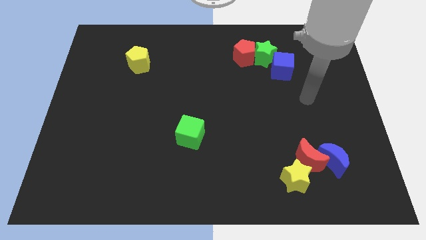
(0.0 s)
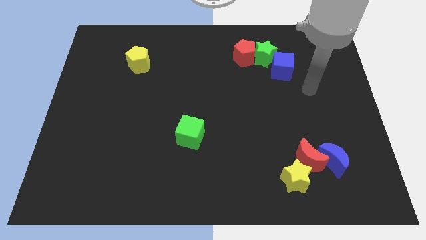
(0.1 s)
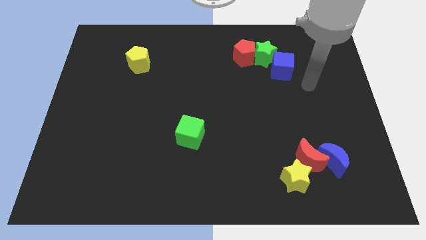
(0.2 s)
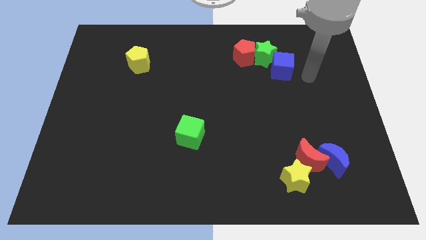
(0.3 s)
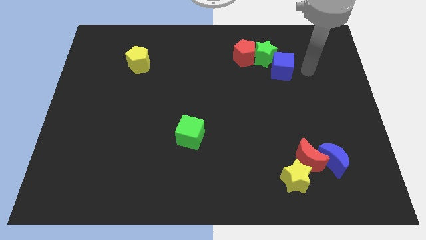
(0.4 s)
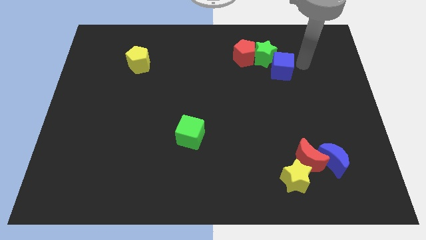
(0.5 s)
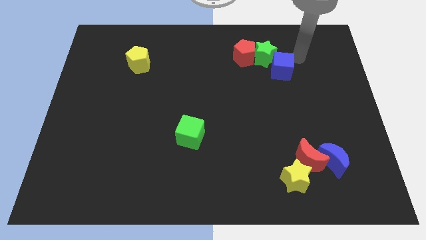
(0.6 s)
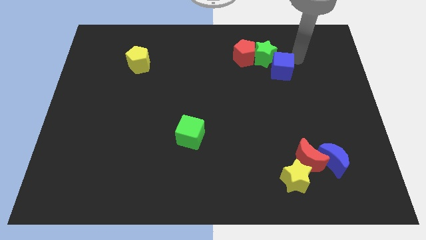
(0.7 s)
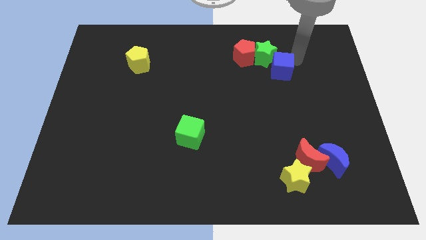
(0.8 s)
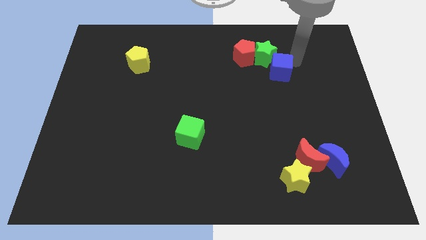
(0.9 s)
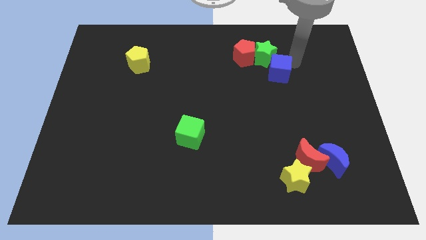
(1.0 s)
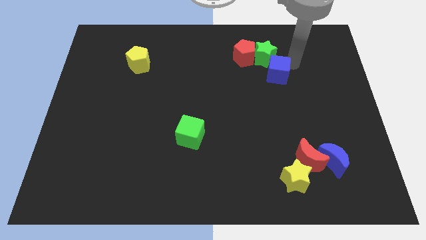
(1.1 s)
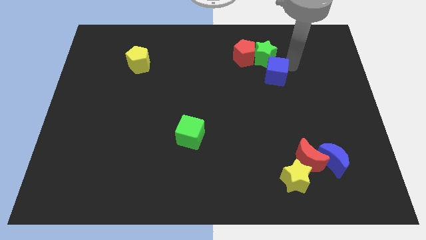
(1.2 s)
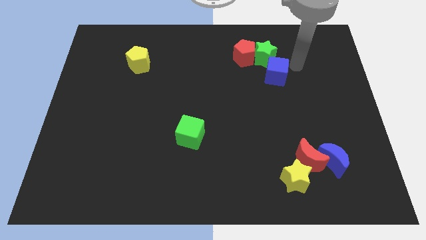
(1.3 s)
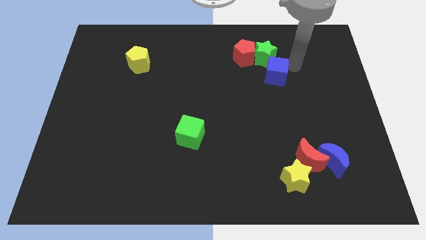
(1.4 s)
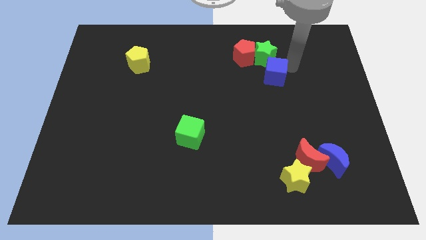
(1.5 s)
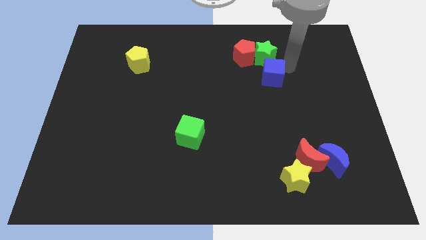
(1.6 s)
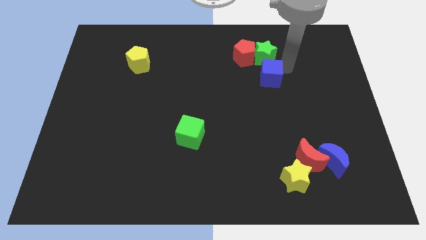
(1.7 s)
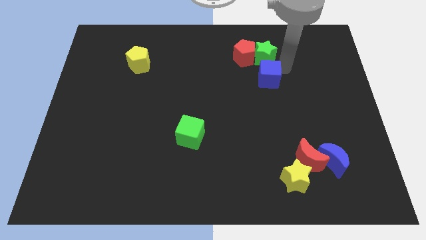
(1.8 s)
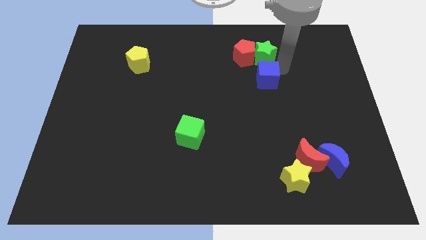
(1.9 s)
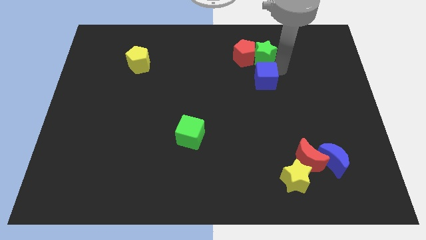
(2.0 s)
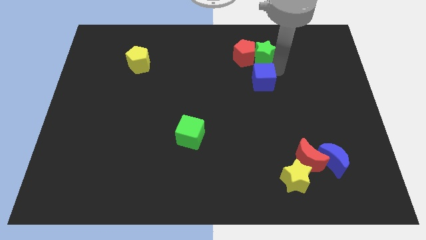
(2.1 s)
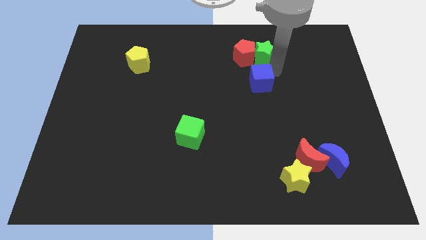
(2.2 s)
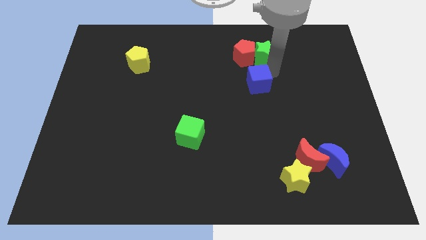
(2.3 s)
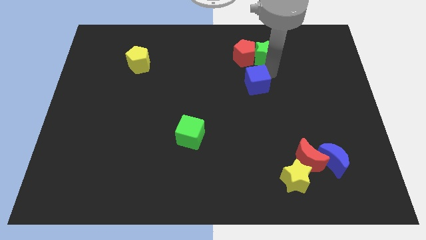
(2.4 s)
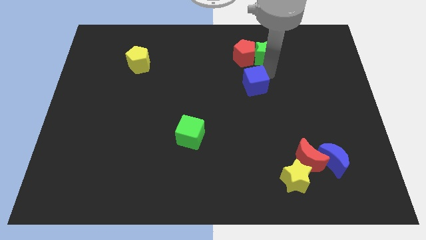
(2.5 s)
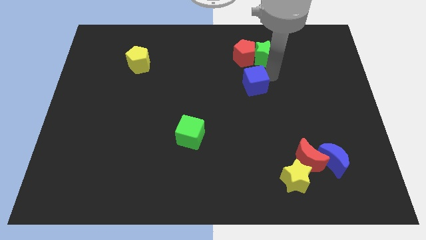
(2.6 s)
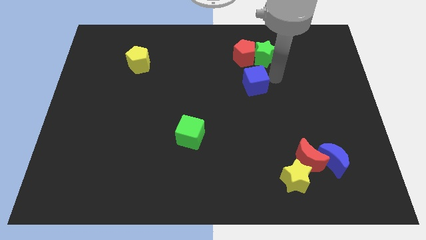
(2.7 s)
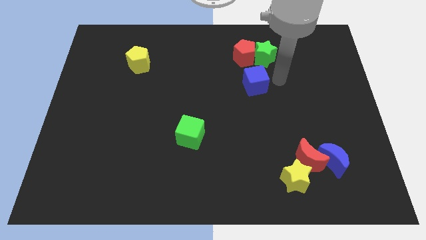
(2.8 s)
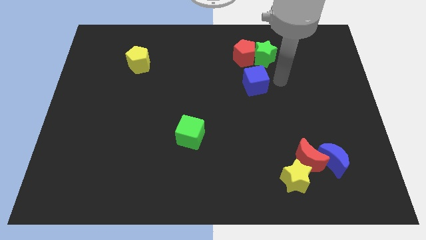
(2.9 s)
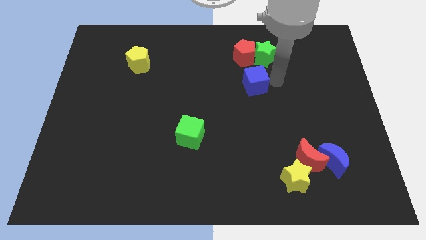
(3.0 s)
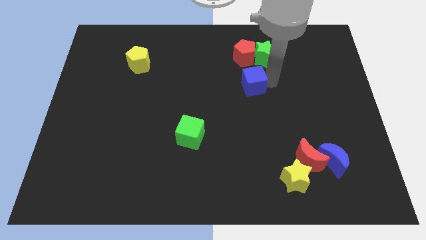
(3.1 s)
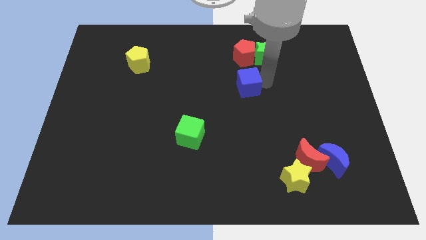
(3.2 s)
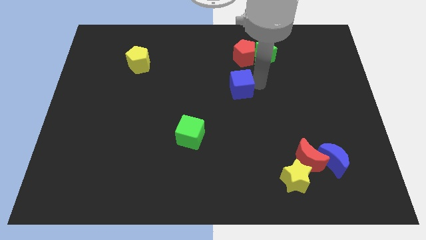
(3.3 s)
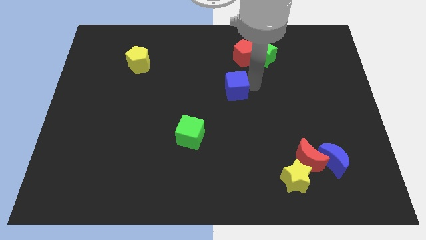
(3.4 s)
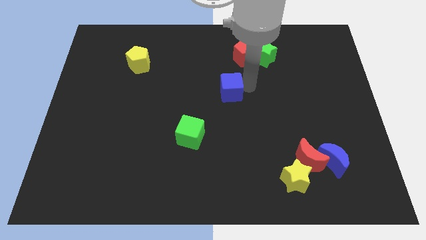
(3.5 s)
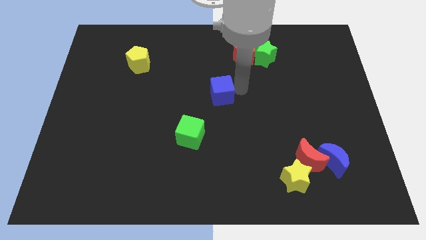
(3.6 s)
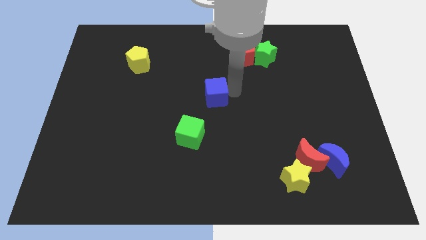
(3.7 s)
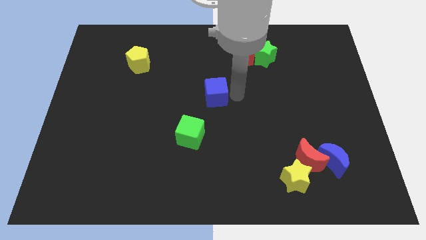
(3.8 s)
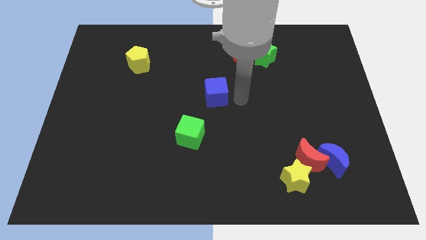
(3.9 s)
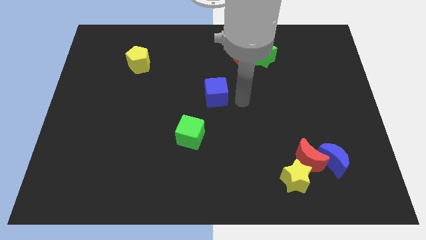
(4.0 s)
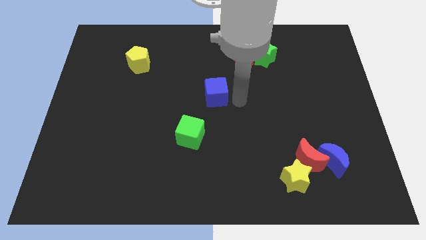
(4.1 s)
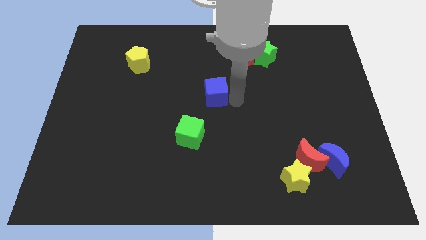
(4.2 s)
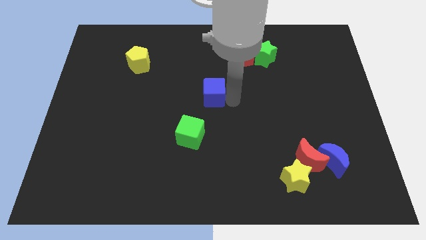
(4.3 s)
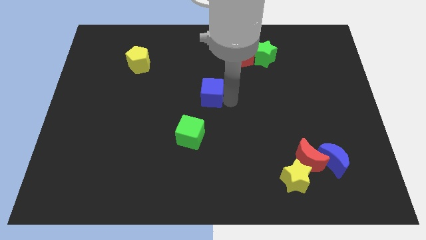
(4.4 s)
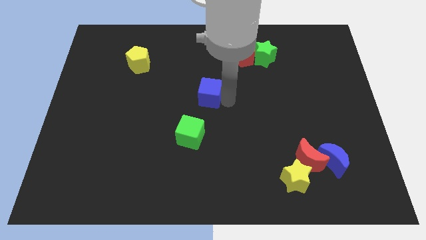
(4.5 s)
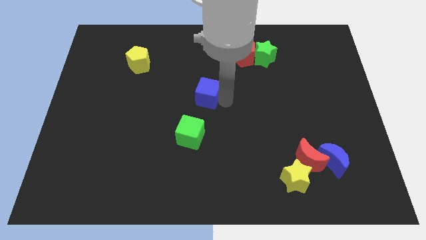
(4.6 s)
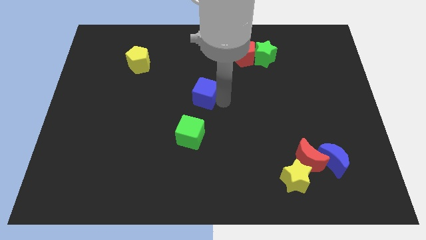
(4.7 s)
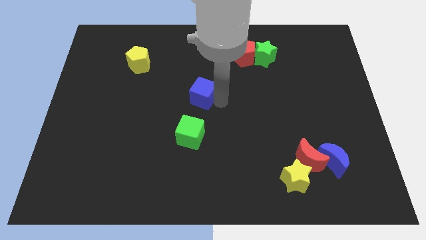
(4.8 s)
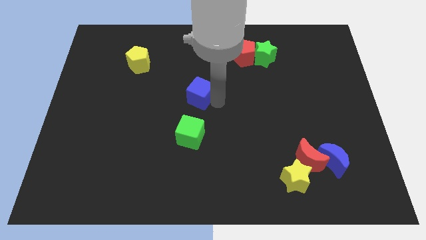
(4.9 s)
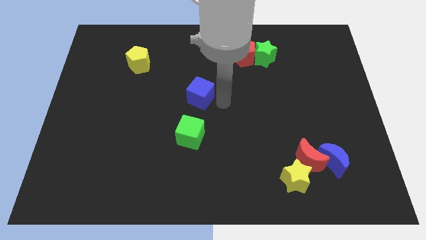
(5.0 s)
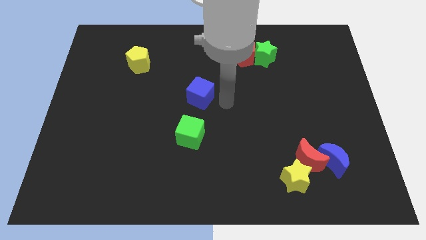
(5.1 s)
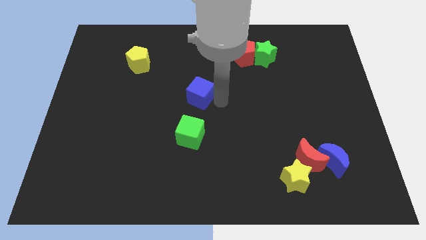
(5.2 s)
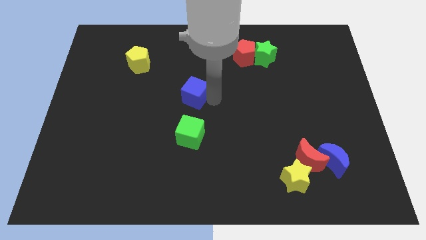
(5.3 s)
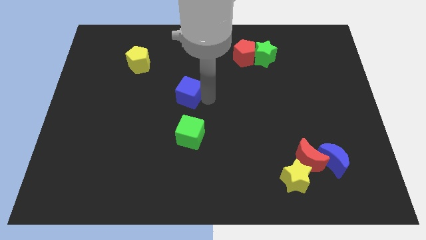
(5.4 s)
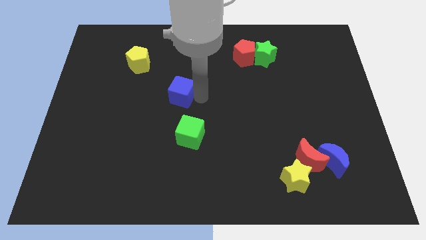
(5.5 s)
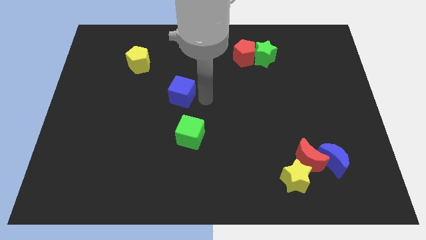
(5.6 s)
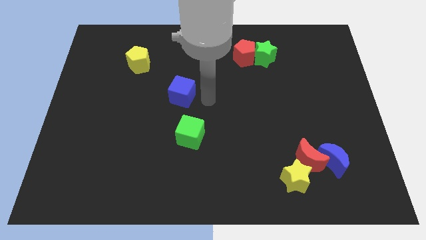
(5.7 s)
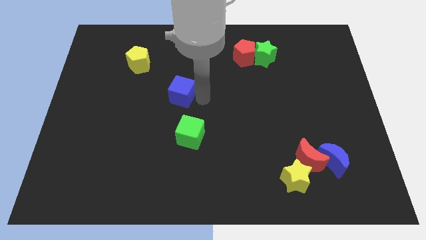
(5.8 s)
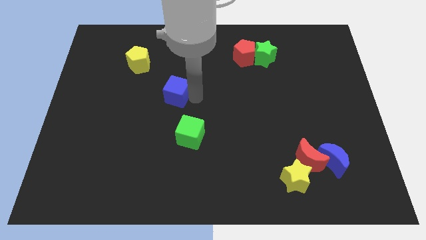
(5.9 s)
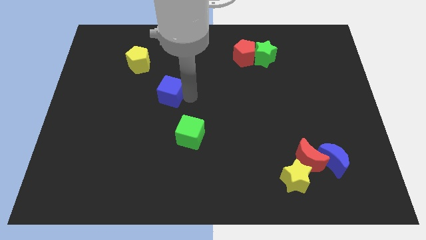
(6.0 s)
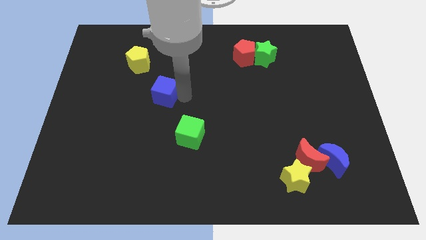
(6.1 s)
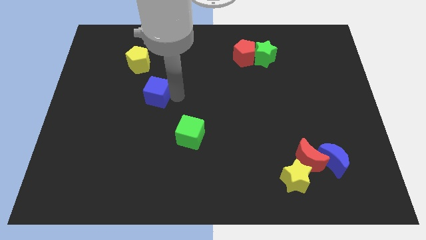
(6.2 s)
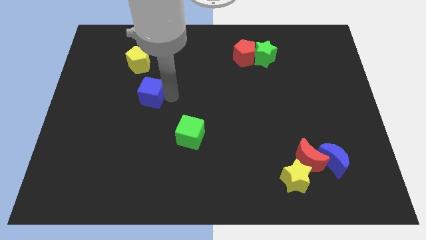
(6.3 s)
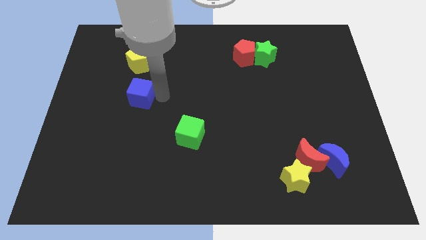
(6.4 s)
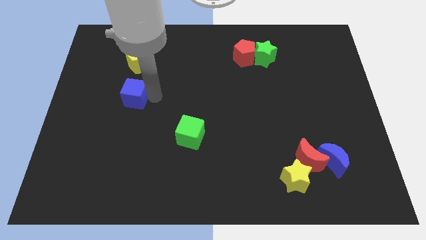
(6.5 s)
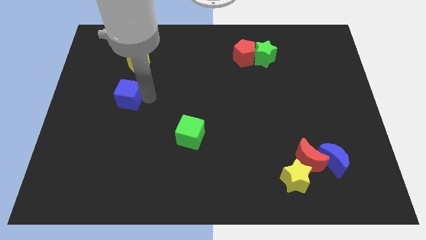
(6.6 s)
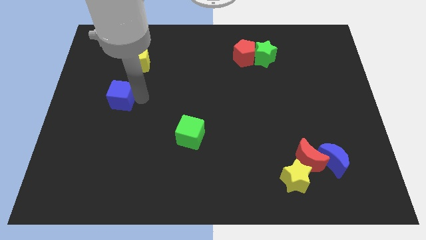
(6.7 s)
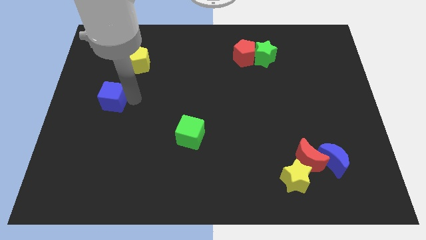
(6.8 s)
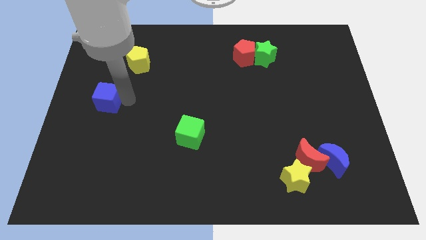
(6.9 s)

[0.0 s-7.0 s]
push the blue cube to the left side of the board
